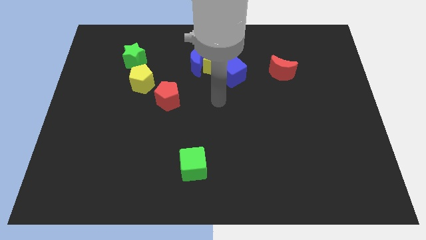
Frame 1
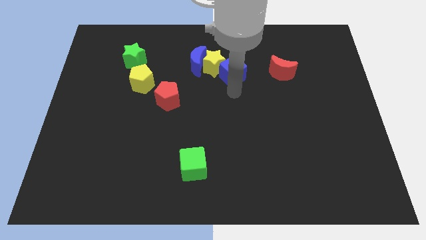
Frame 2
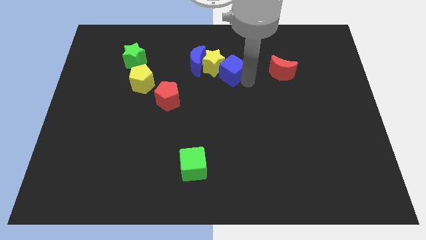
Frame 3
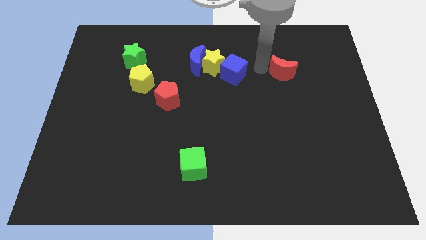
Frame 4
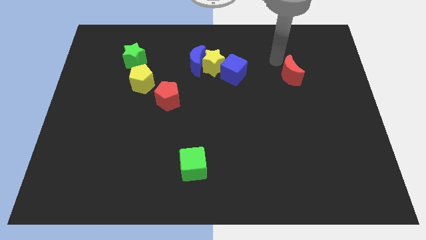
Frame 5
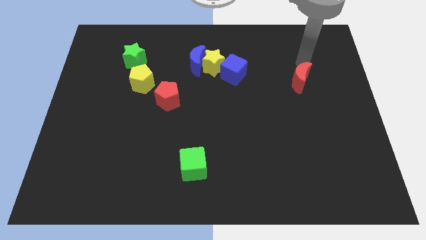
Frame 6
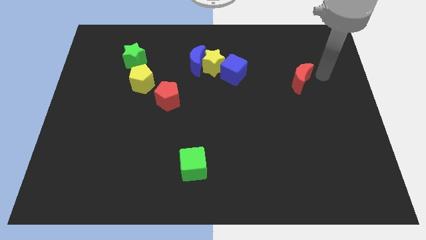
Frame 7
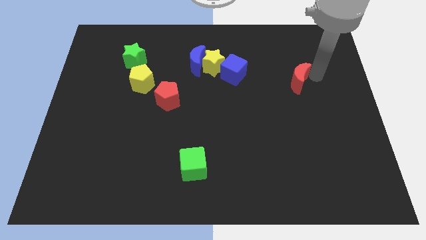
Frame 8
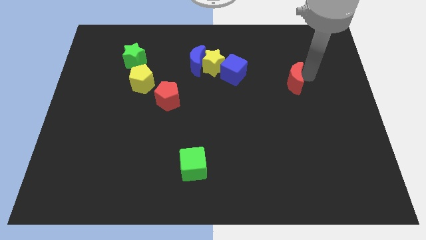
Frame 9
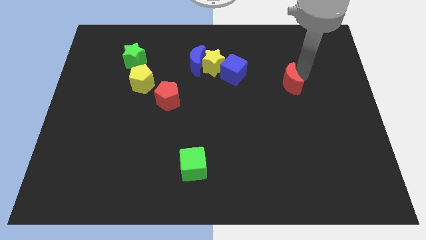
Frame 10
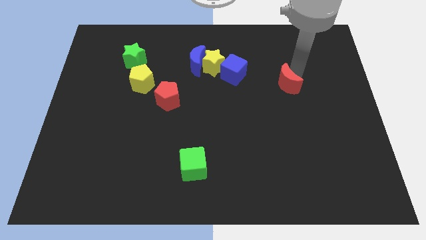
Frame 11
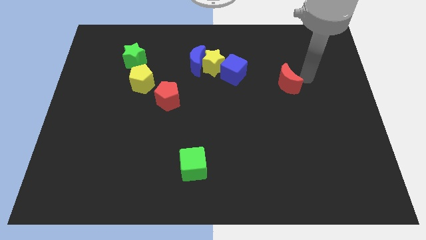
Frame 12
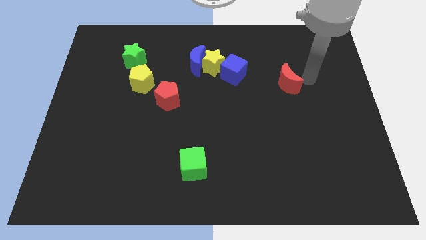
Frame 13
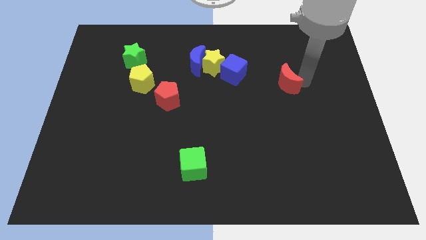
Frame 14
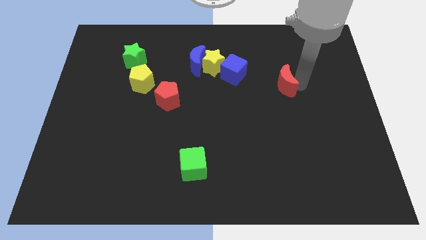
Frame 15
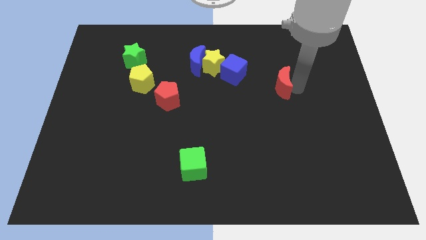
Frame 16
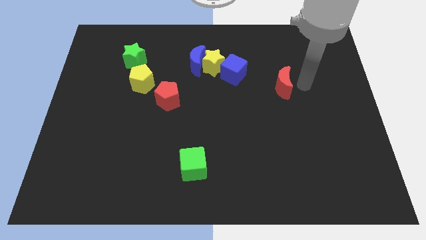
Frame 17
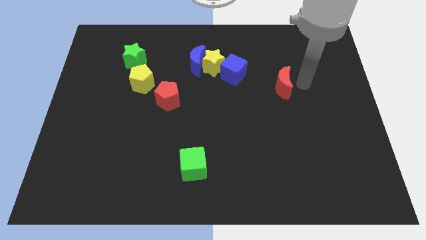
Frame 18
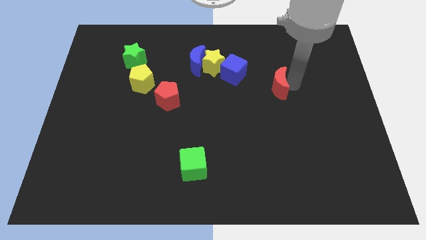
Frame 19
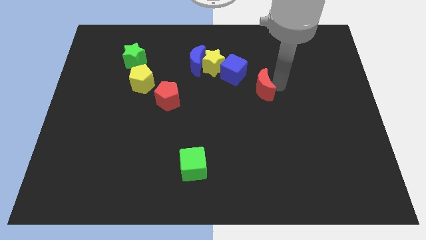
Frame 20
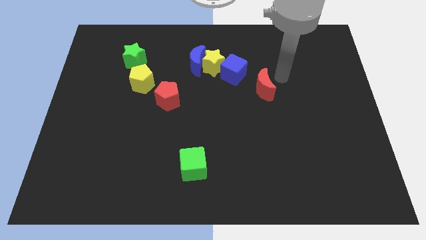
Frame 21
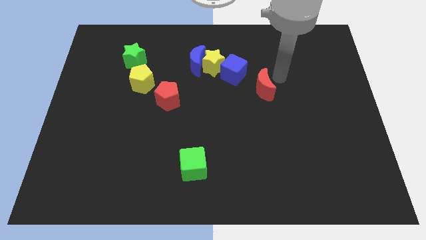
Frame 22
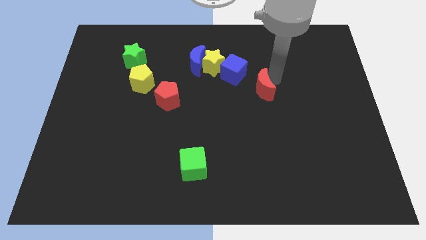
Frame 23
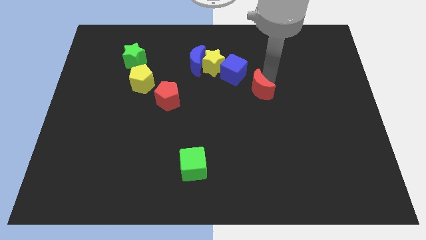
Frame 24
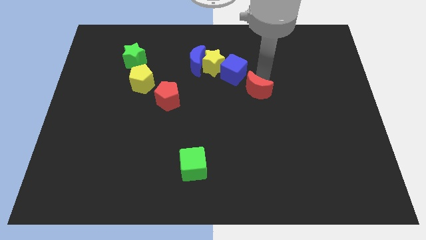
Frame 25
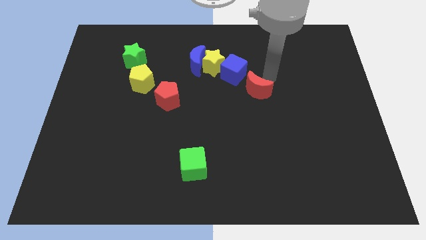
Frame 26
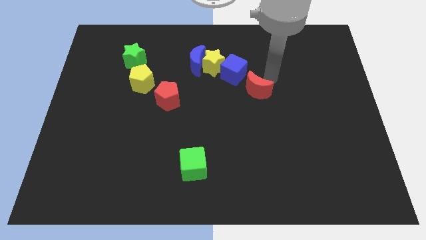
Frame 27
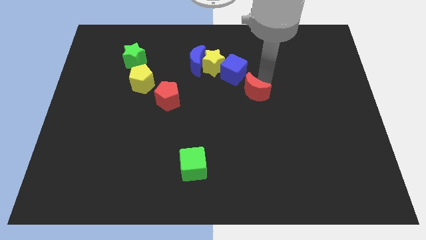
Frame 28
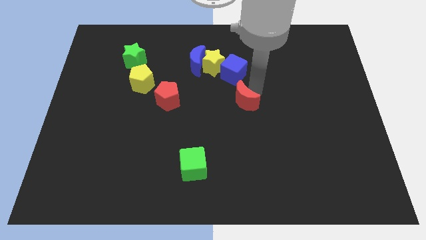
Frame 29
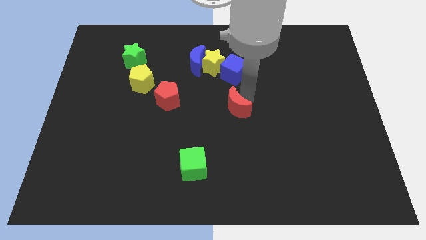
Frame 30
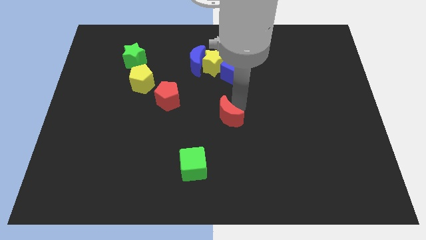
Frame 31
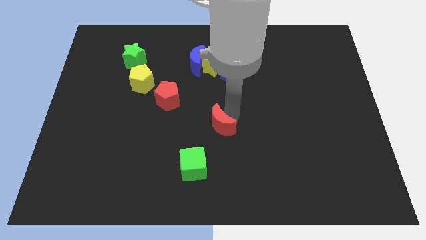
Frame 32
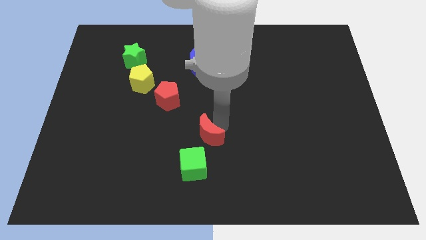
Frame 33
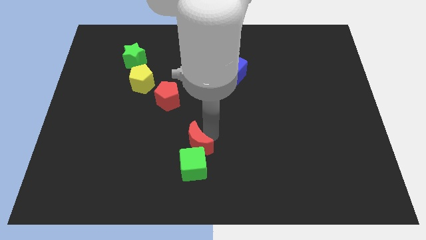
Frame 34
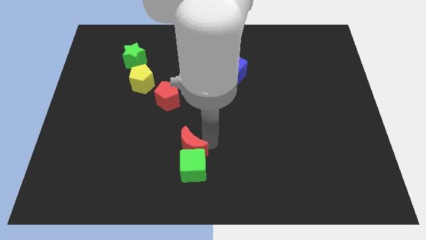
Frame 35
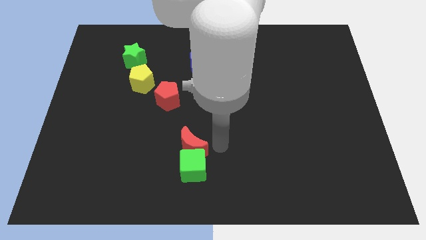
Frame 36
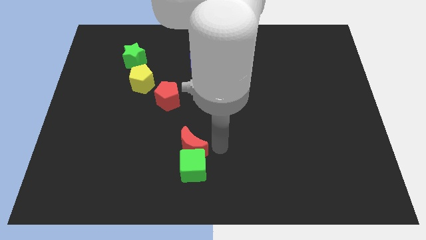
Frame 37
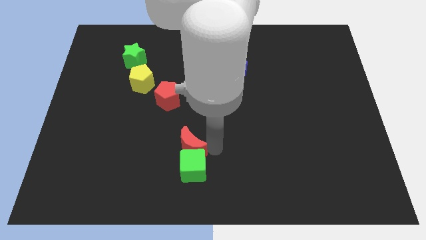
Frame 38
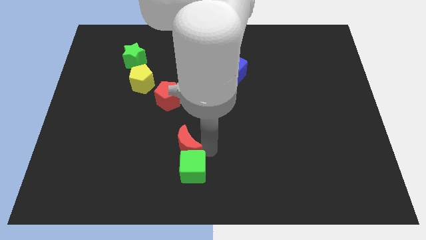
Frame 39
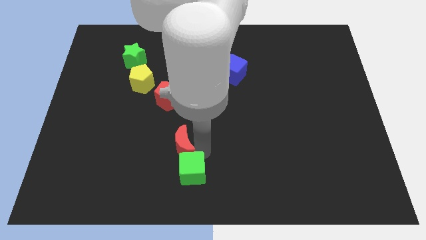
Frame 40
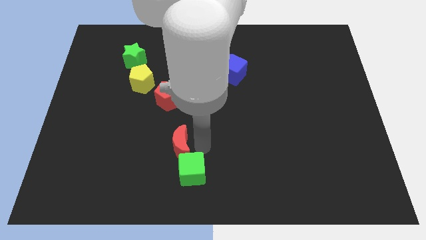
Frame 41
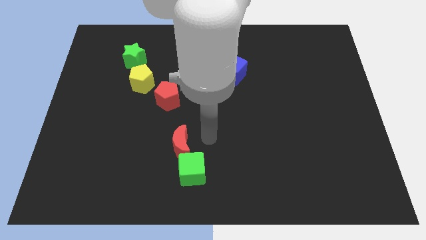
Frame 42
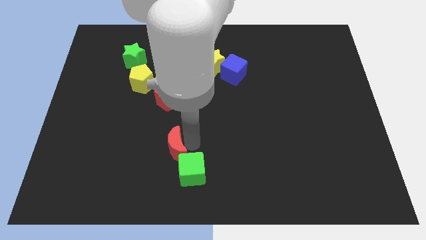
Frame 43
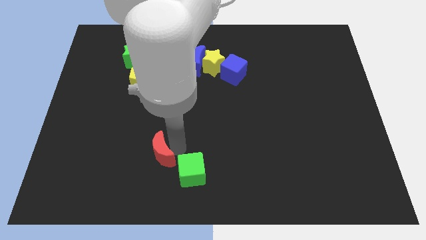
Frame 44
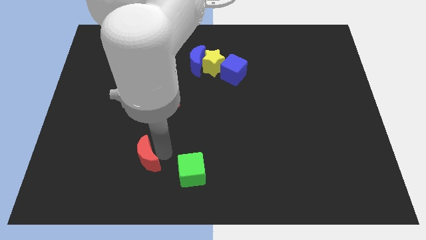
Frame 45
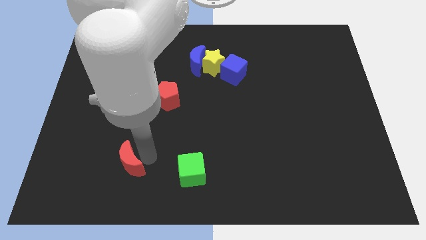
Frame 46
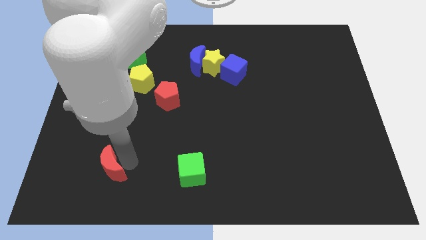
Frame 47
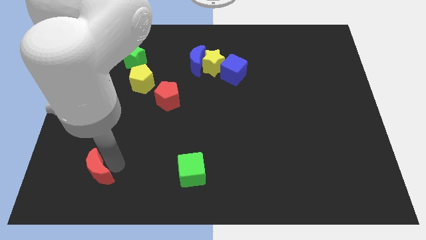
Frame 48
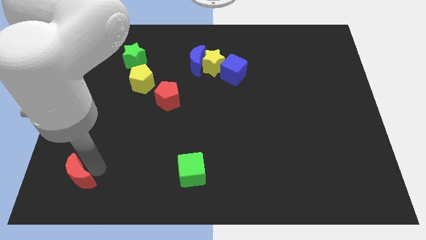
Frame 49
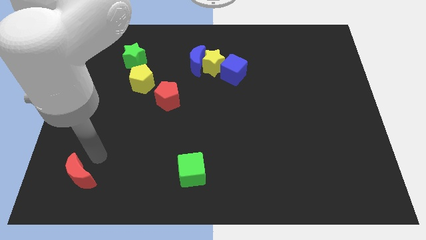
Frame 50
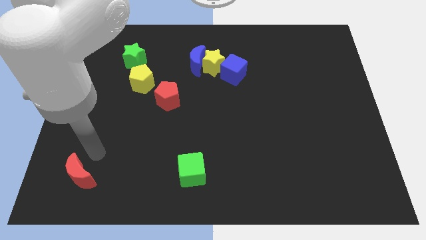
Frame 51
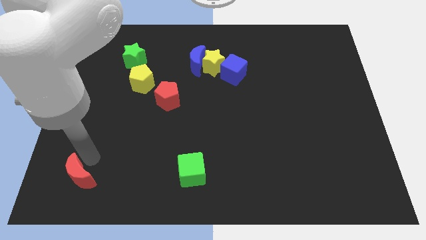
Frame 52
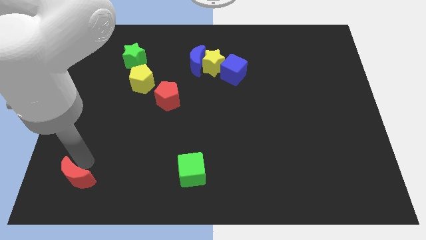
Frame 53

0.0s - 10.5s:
move the red moon to the bottom left of the board

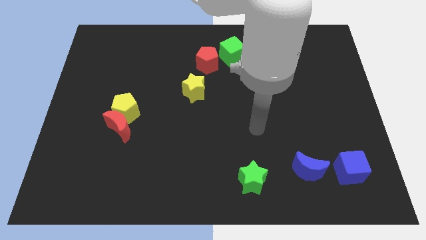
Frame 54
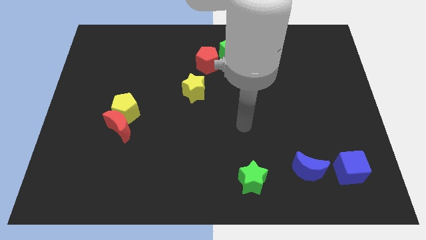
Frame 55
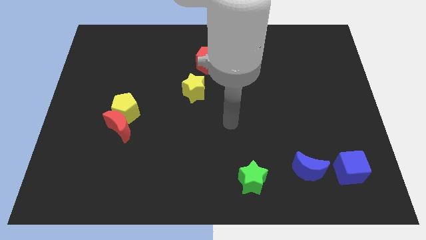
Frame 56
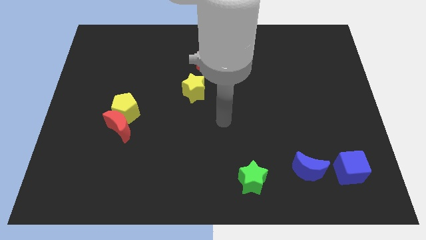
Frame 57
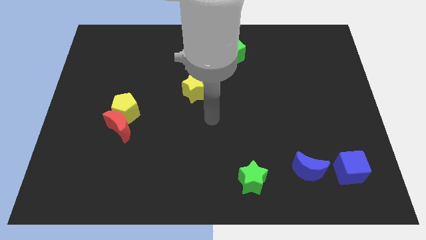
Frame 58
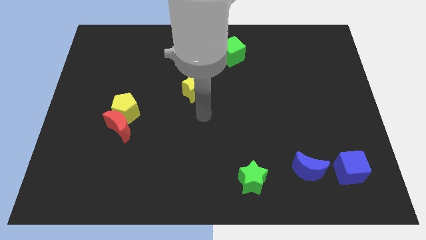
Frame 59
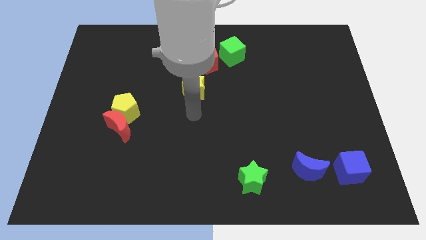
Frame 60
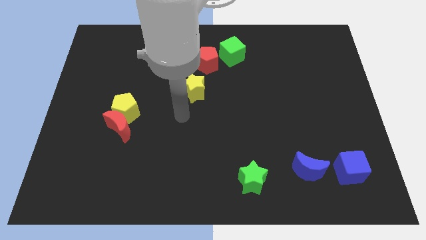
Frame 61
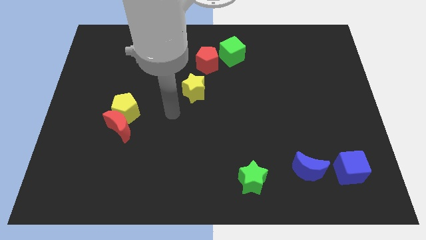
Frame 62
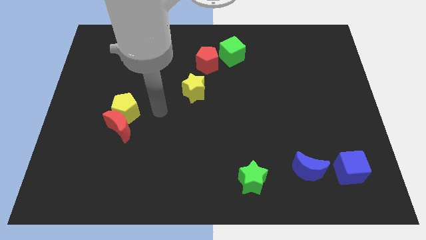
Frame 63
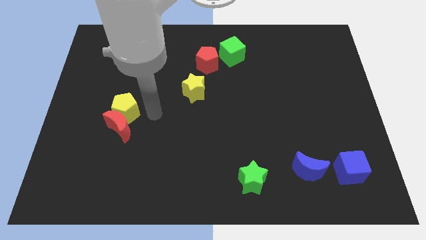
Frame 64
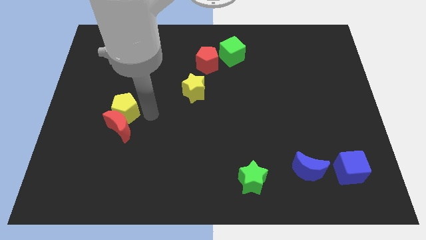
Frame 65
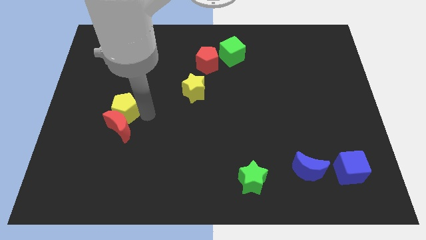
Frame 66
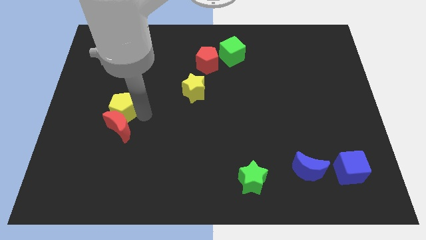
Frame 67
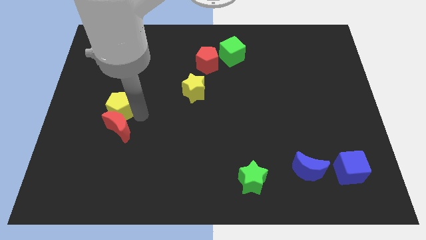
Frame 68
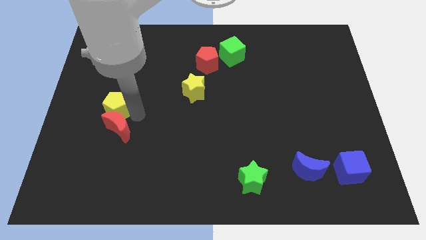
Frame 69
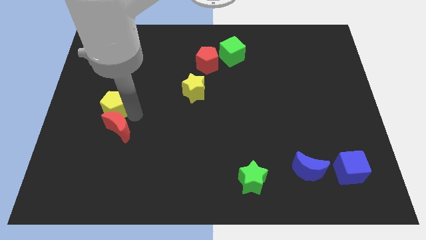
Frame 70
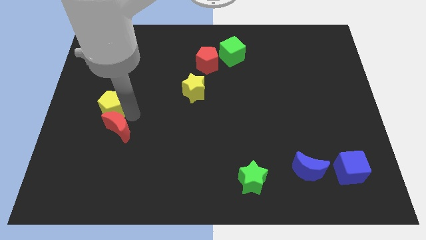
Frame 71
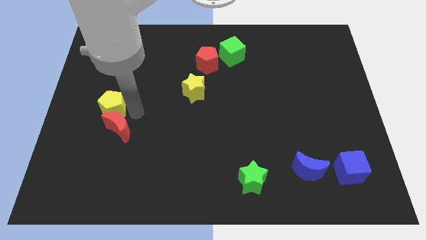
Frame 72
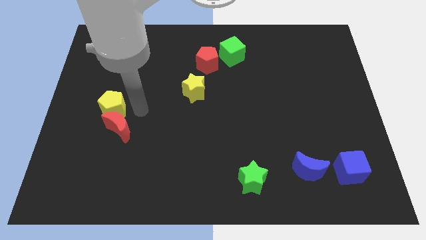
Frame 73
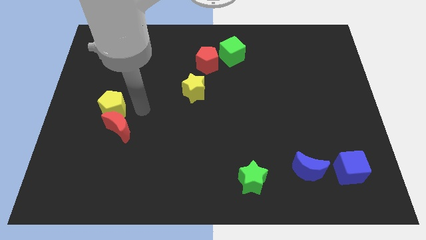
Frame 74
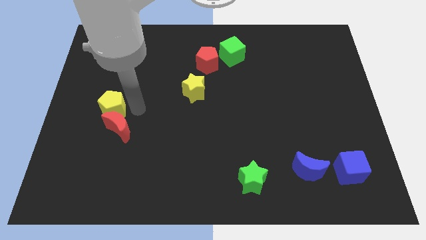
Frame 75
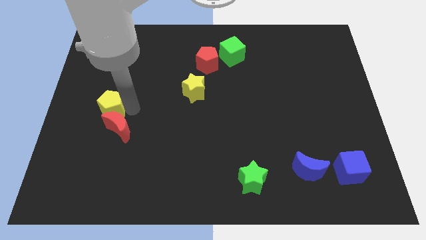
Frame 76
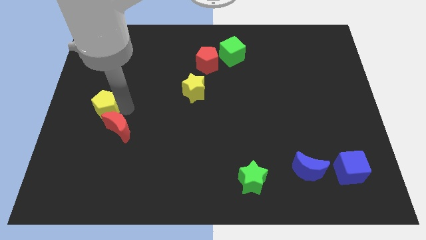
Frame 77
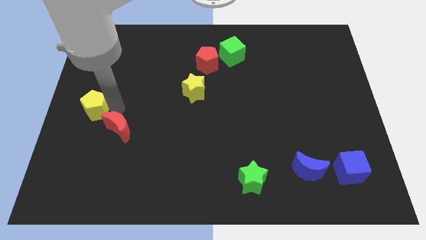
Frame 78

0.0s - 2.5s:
move the yellow pentagon to the center left
